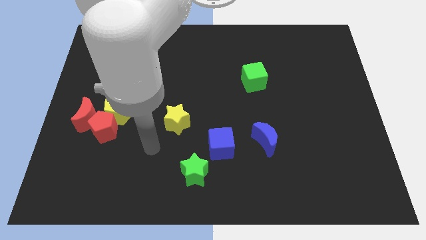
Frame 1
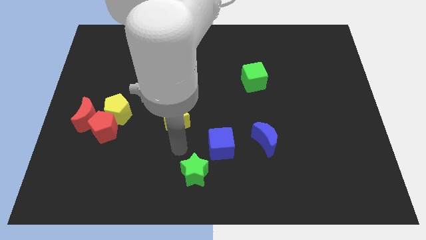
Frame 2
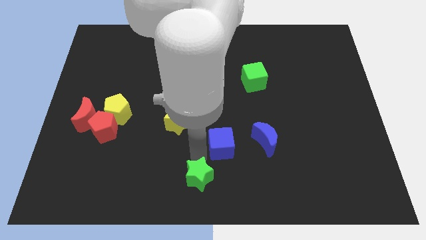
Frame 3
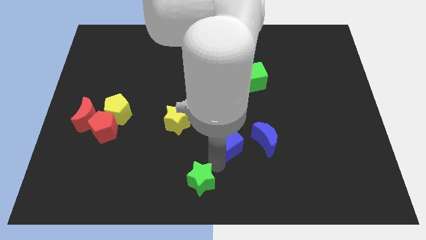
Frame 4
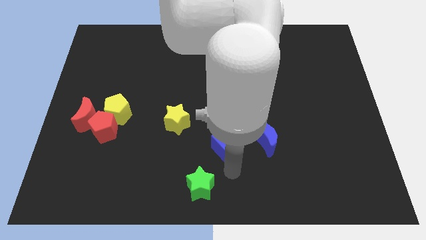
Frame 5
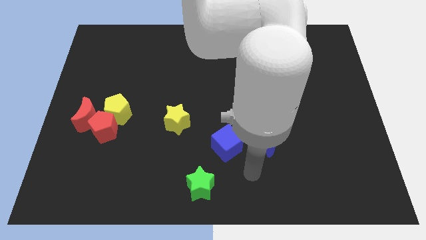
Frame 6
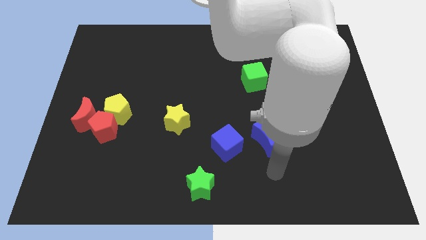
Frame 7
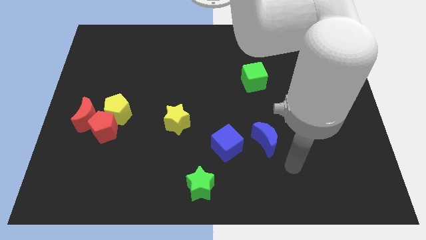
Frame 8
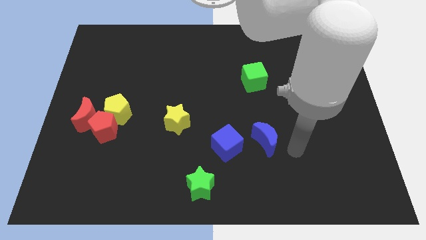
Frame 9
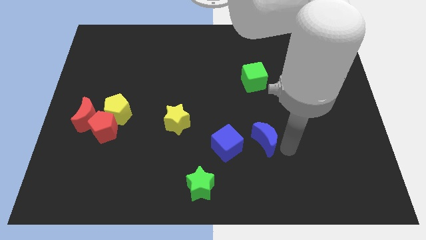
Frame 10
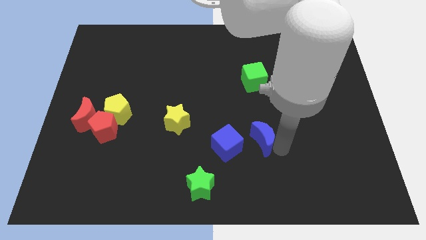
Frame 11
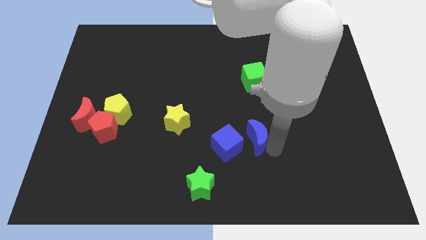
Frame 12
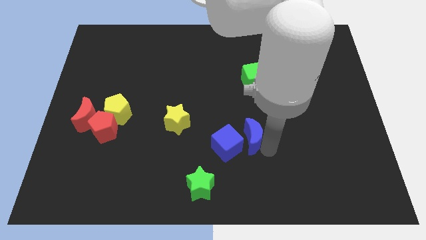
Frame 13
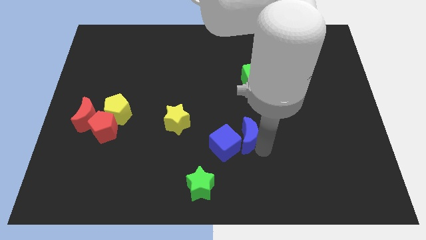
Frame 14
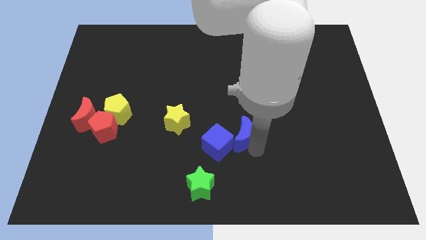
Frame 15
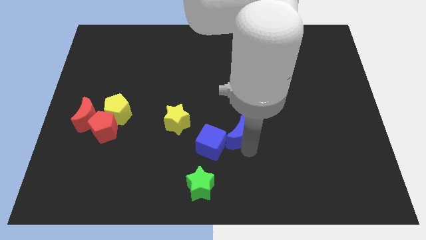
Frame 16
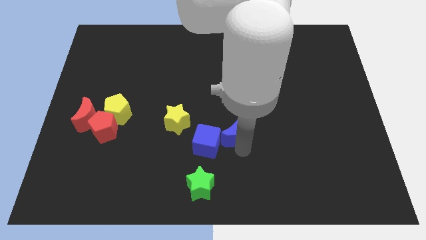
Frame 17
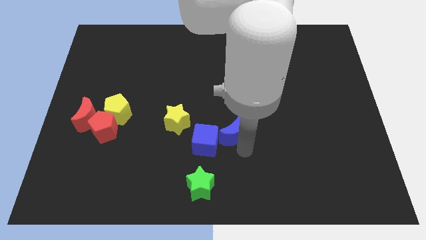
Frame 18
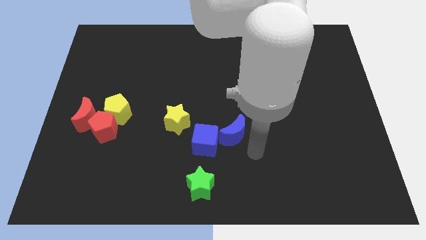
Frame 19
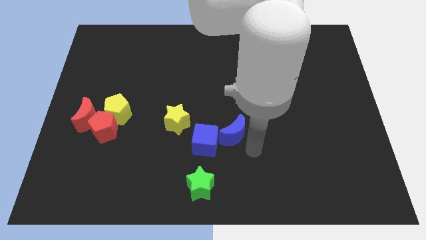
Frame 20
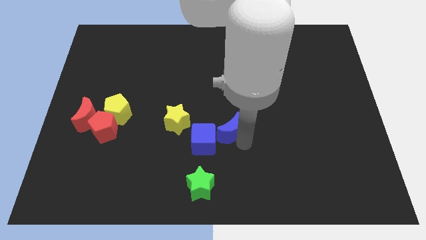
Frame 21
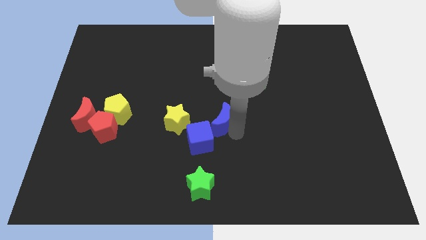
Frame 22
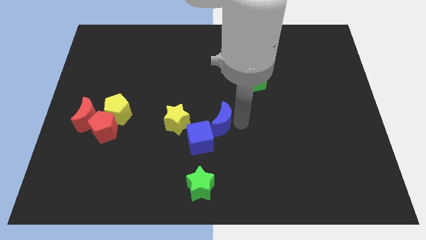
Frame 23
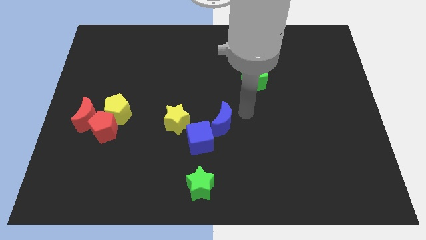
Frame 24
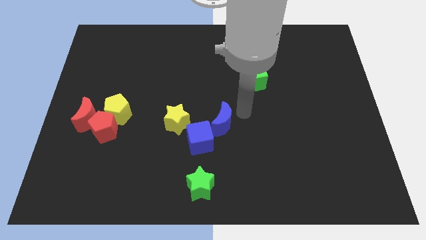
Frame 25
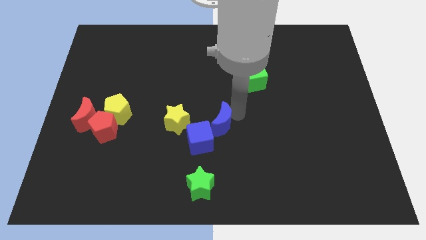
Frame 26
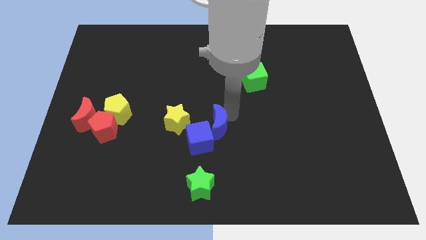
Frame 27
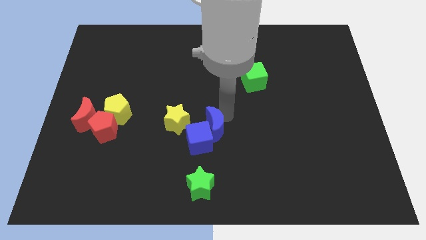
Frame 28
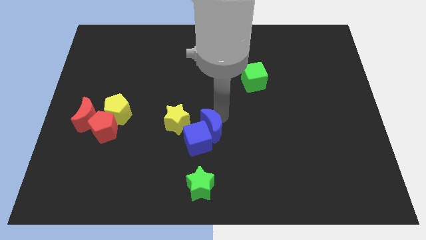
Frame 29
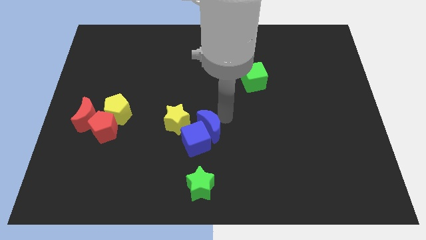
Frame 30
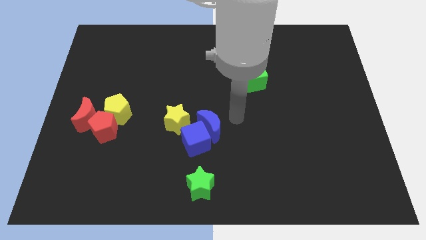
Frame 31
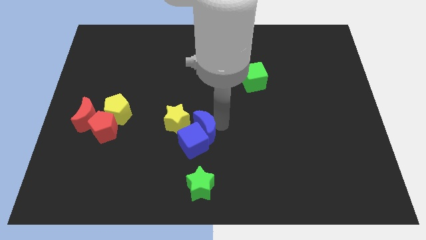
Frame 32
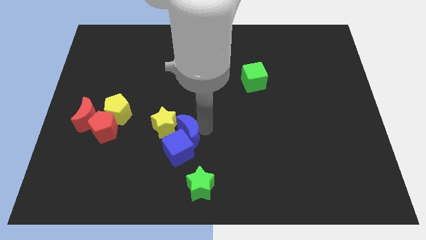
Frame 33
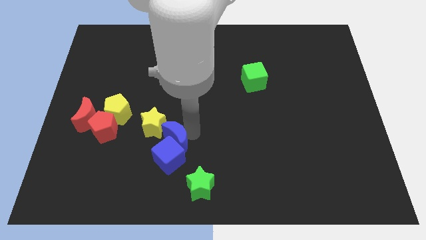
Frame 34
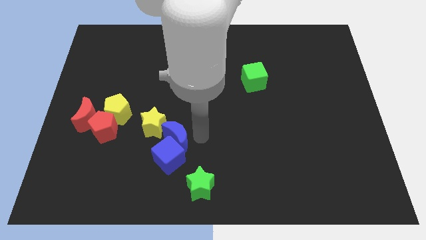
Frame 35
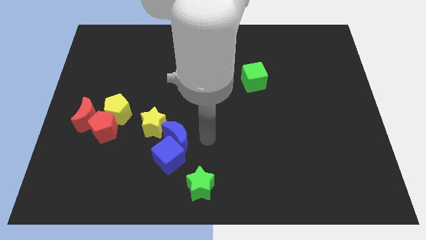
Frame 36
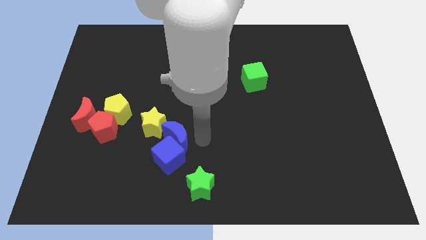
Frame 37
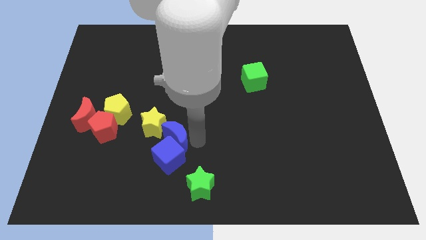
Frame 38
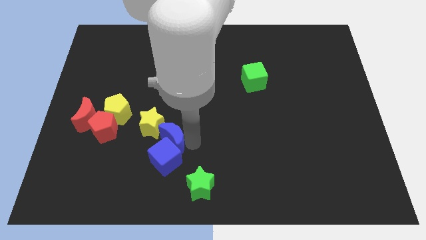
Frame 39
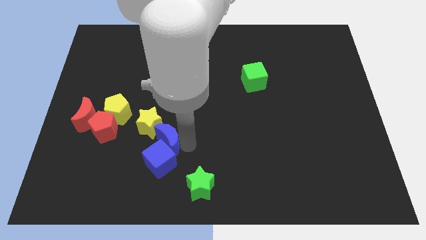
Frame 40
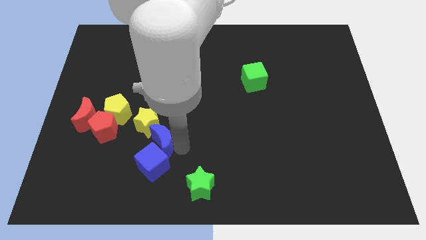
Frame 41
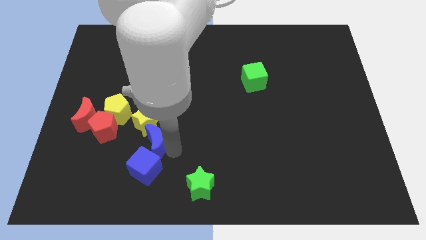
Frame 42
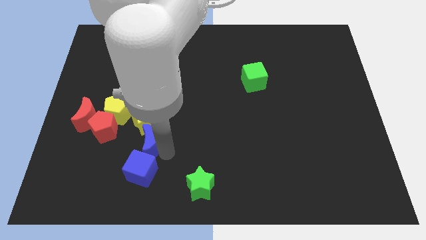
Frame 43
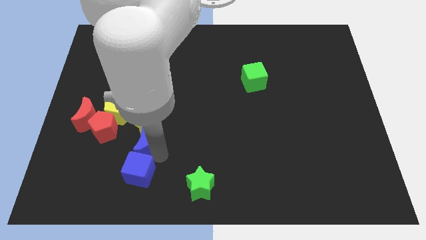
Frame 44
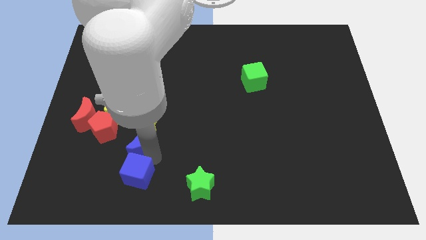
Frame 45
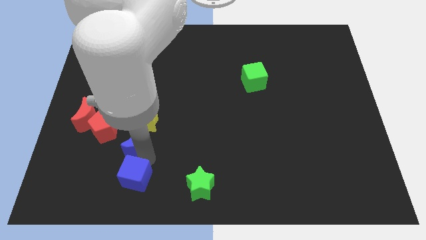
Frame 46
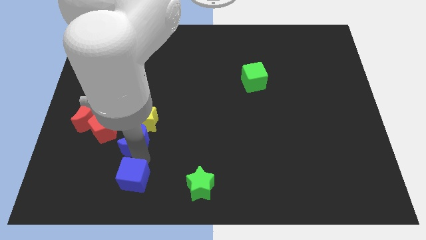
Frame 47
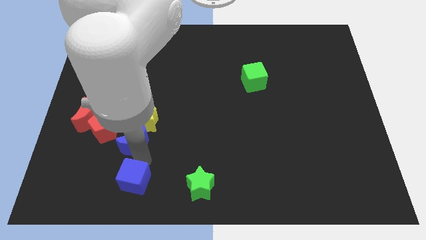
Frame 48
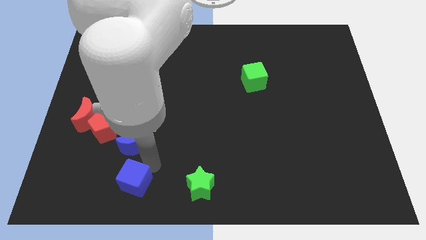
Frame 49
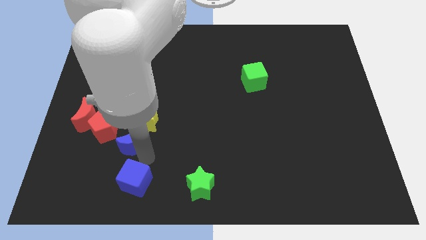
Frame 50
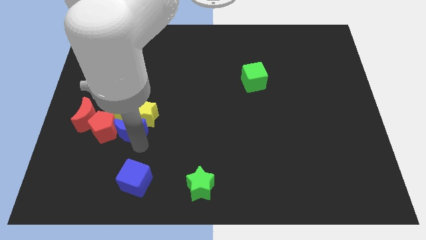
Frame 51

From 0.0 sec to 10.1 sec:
push the blue moon to the red pentagon

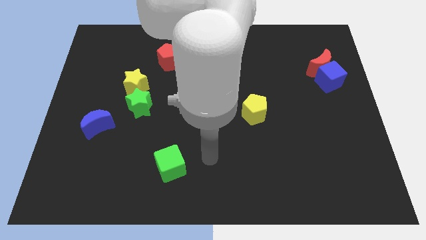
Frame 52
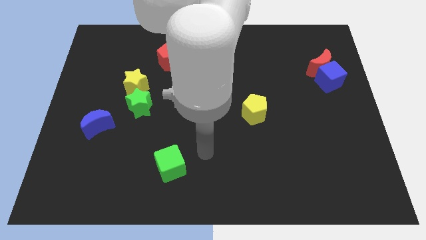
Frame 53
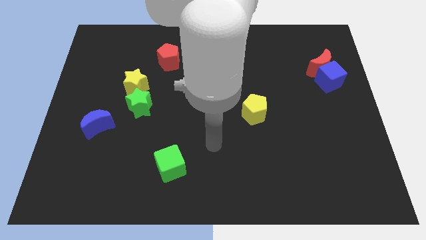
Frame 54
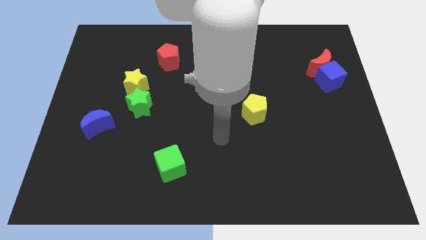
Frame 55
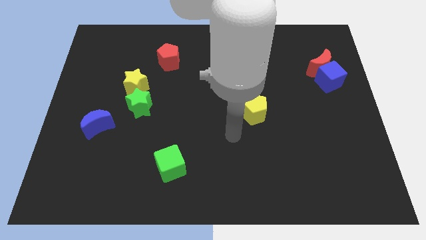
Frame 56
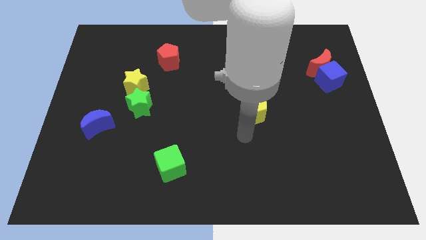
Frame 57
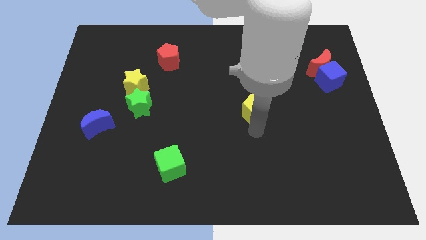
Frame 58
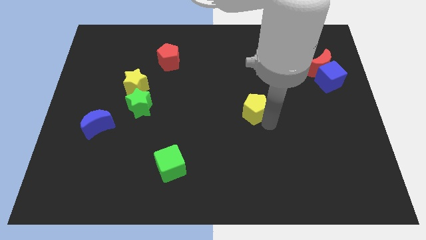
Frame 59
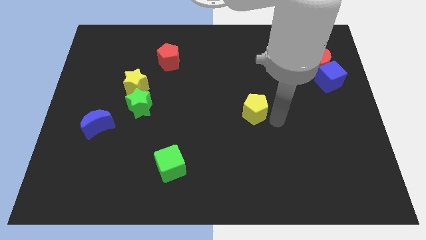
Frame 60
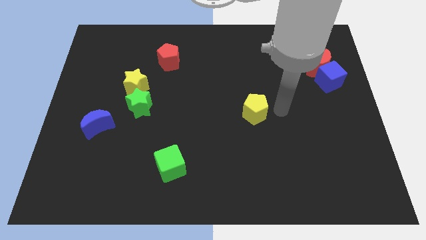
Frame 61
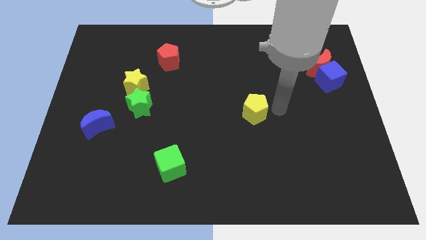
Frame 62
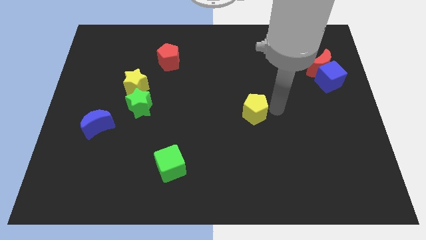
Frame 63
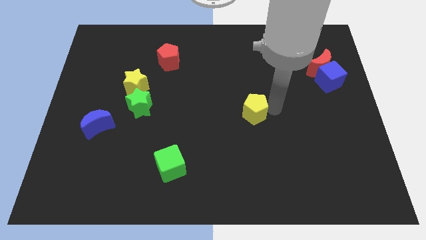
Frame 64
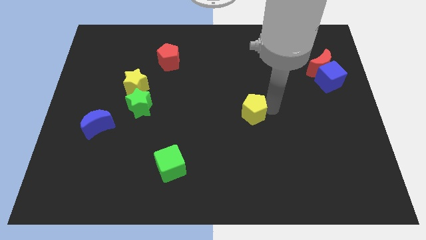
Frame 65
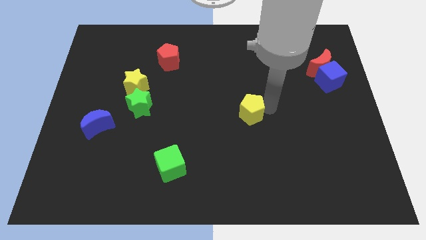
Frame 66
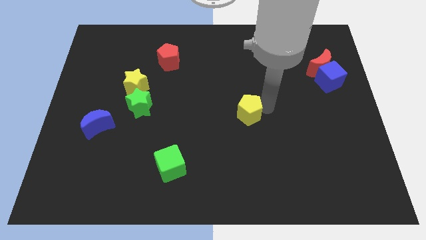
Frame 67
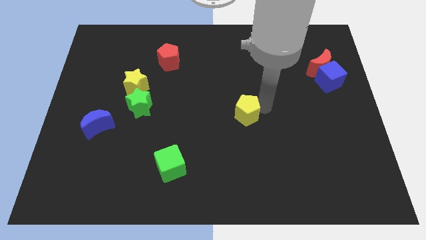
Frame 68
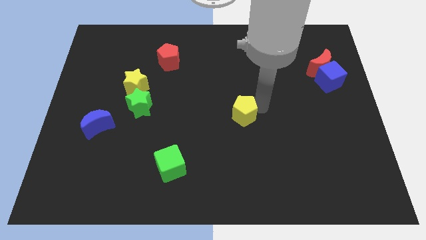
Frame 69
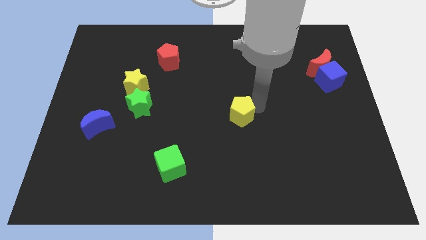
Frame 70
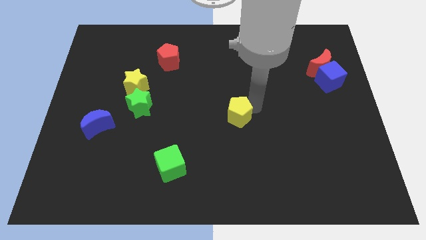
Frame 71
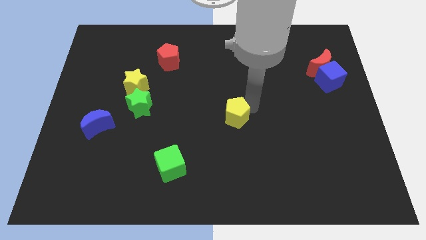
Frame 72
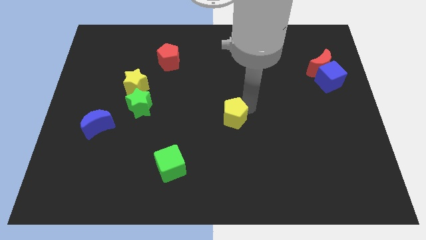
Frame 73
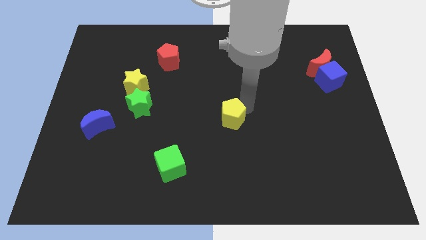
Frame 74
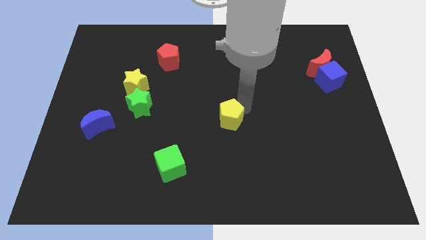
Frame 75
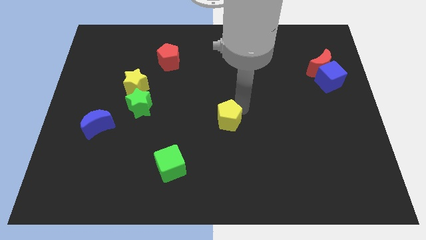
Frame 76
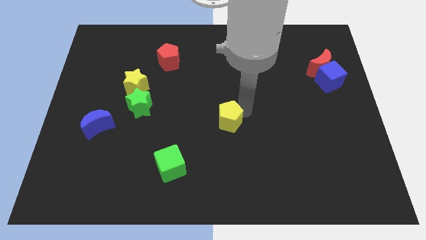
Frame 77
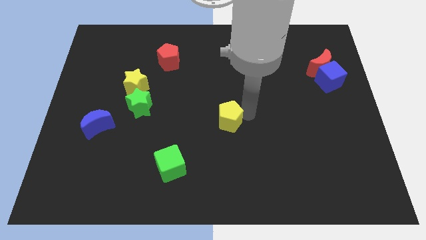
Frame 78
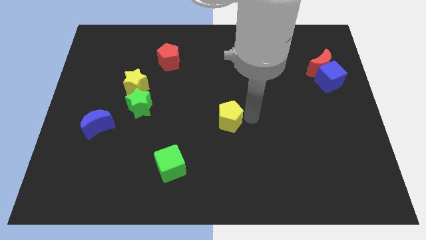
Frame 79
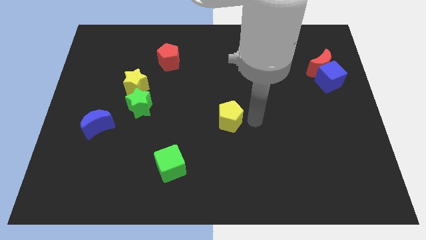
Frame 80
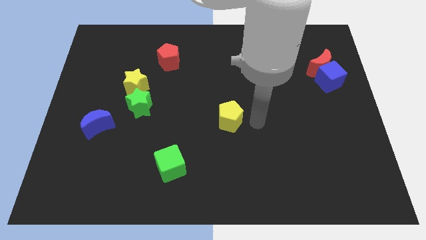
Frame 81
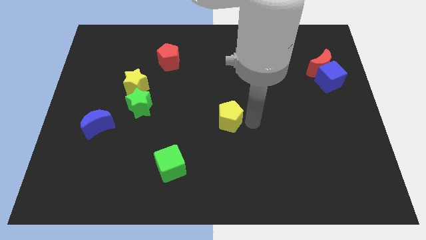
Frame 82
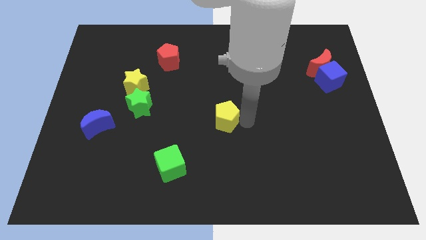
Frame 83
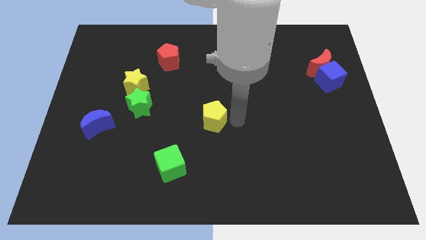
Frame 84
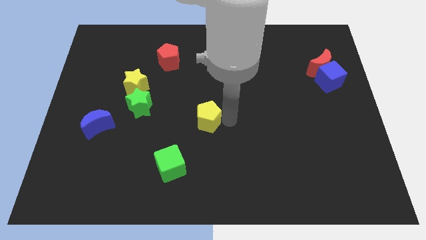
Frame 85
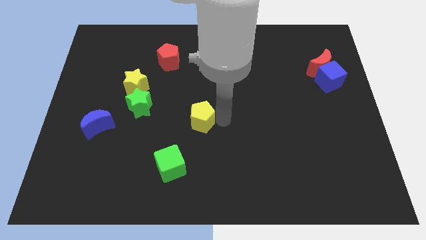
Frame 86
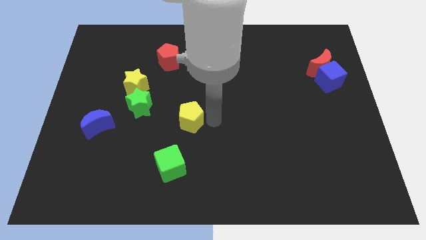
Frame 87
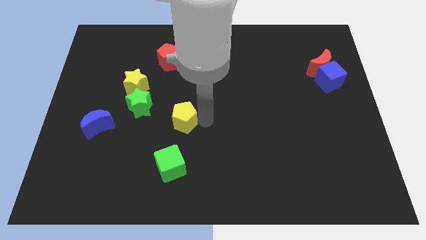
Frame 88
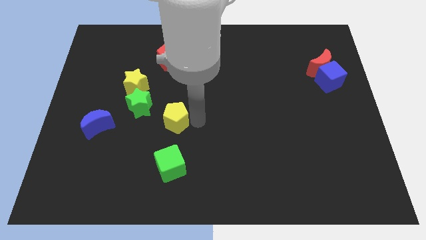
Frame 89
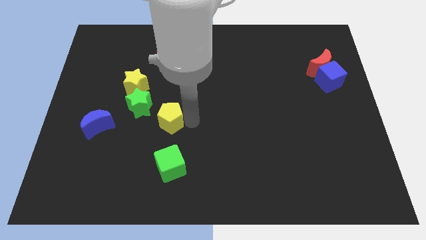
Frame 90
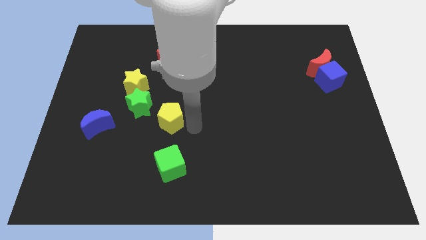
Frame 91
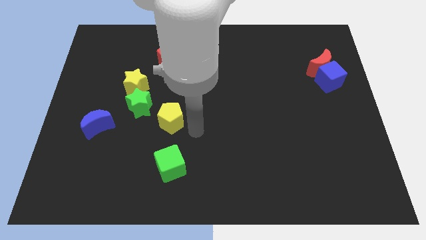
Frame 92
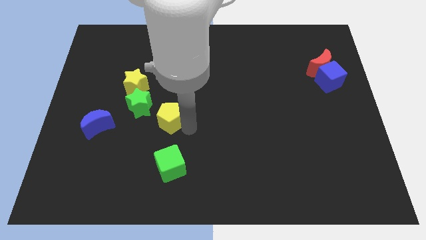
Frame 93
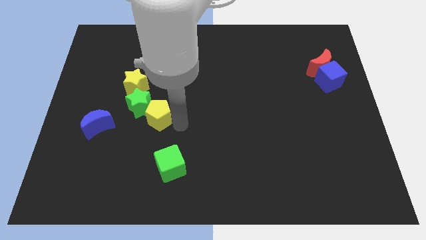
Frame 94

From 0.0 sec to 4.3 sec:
put the yellow pentagon next to the green star
